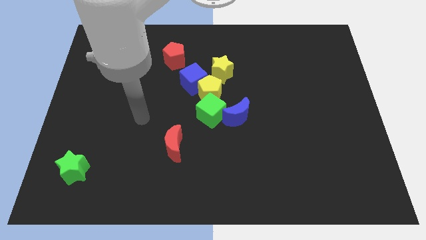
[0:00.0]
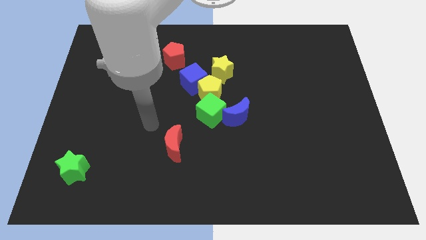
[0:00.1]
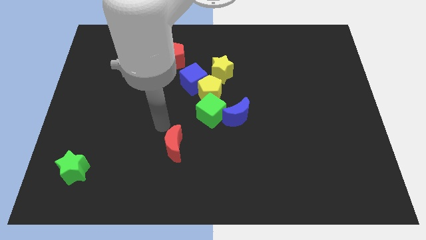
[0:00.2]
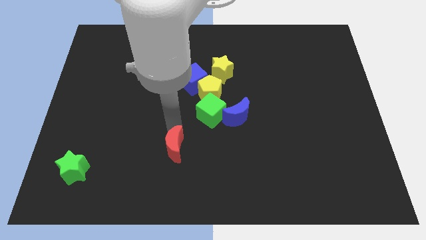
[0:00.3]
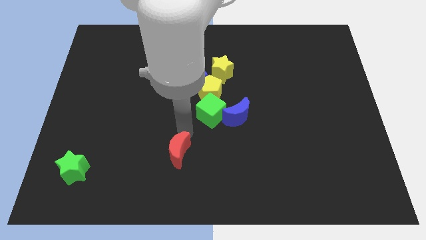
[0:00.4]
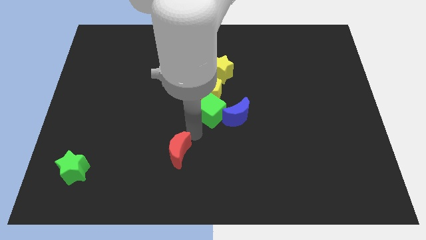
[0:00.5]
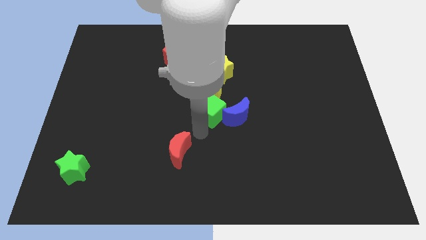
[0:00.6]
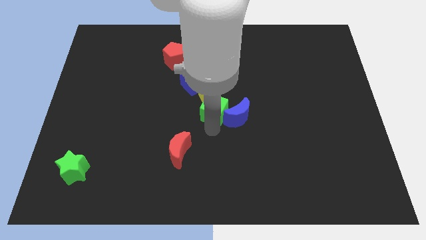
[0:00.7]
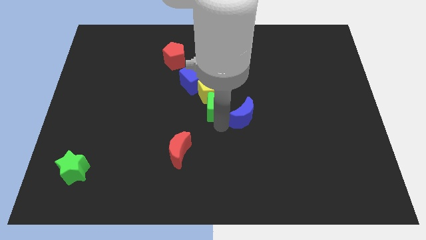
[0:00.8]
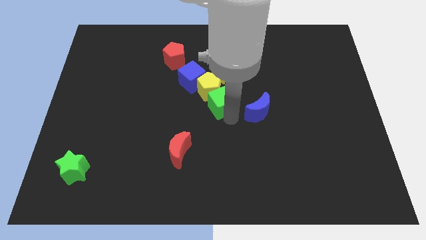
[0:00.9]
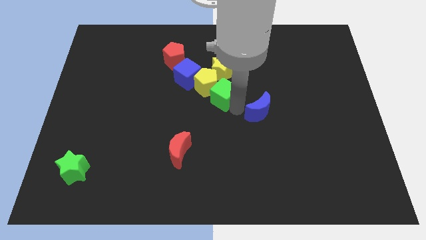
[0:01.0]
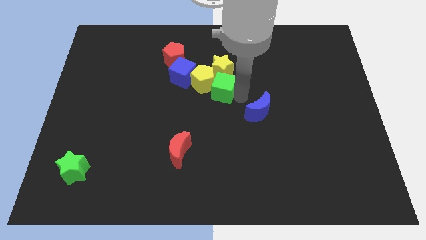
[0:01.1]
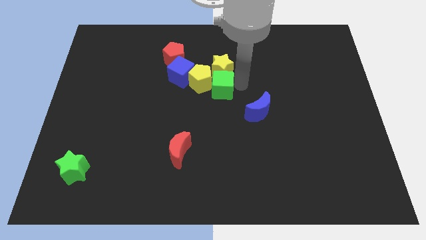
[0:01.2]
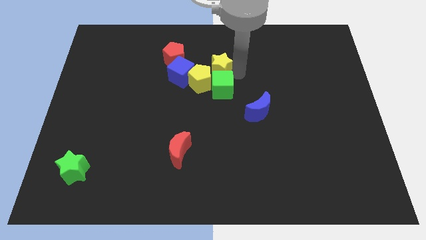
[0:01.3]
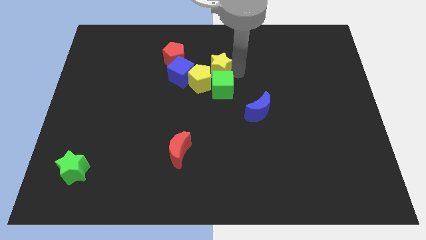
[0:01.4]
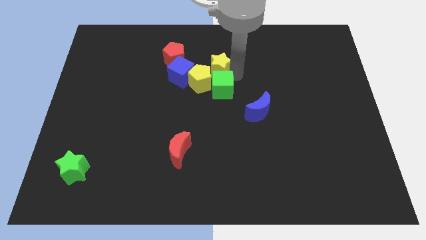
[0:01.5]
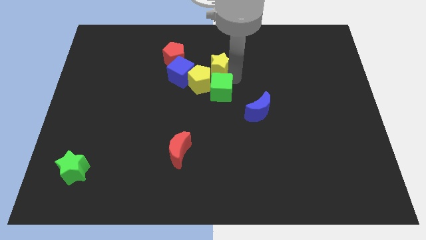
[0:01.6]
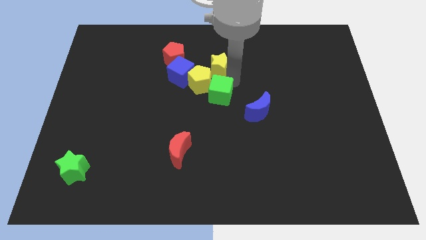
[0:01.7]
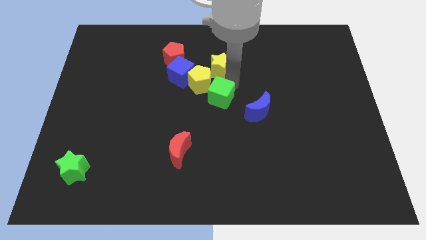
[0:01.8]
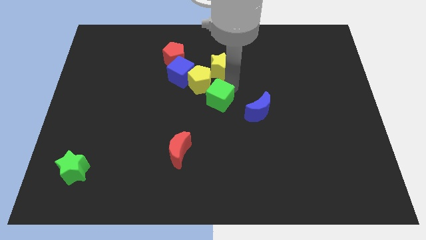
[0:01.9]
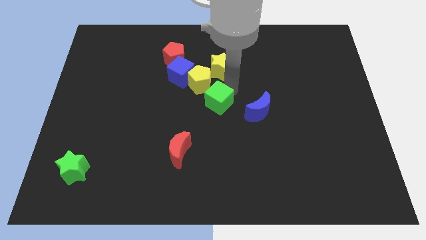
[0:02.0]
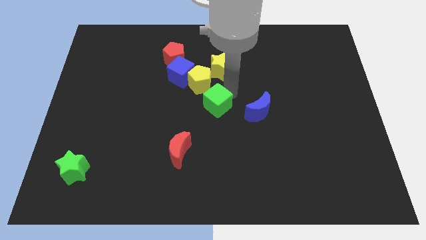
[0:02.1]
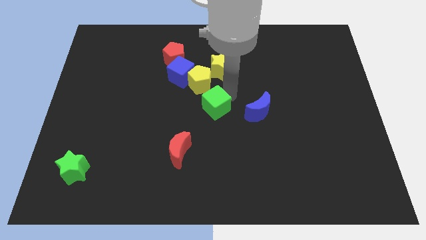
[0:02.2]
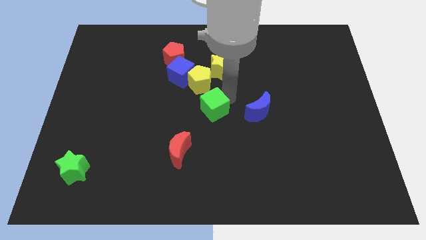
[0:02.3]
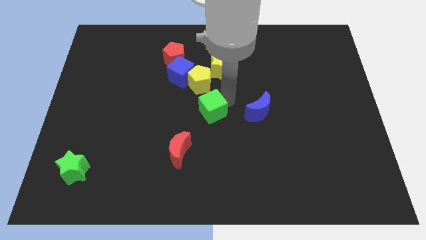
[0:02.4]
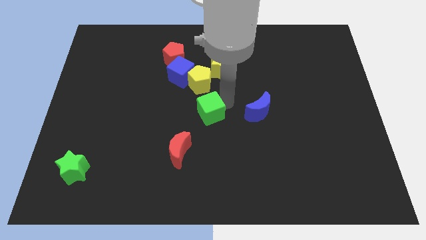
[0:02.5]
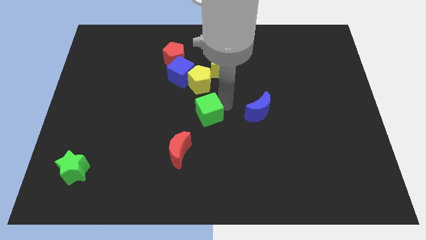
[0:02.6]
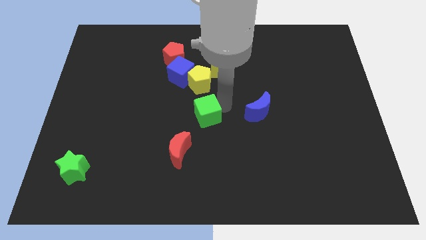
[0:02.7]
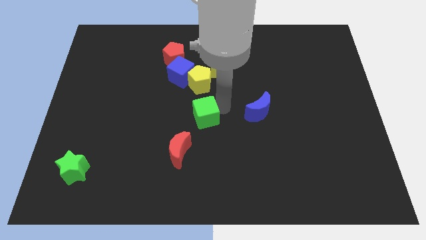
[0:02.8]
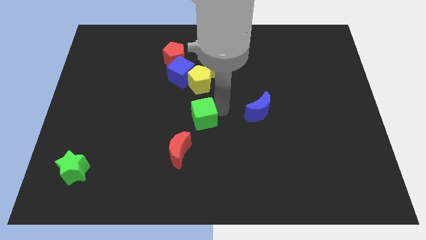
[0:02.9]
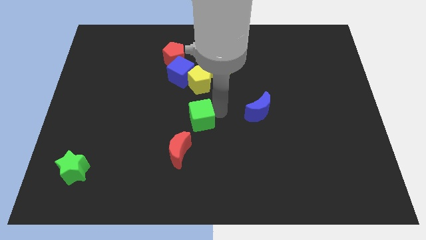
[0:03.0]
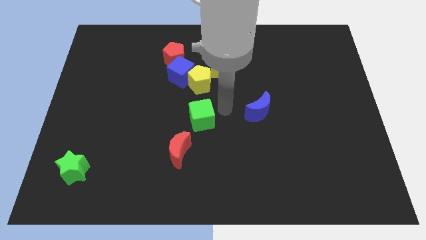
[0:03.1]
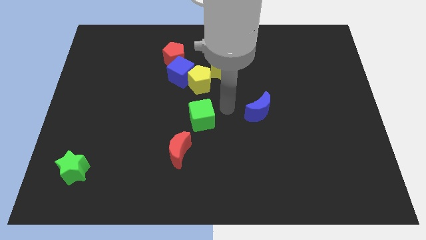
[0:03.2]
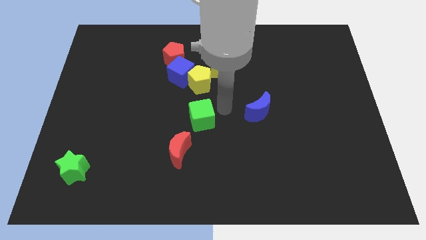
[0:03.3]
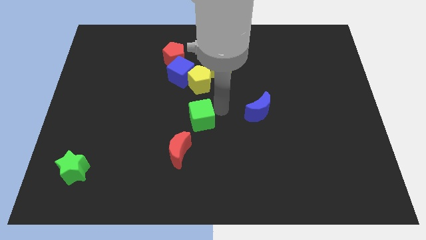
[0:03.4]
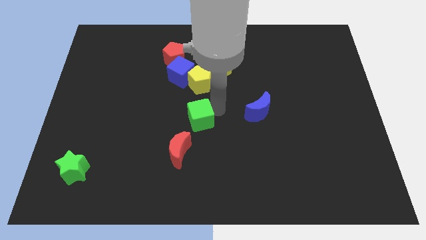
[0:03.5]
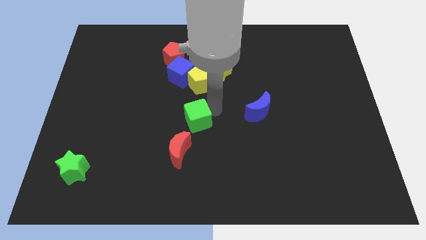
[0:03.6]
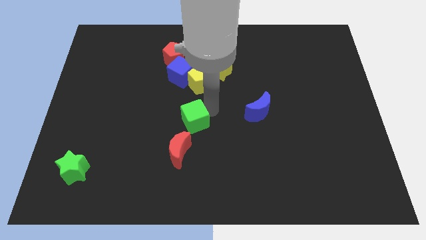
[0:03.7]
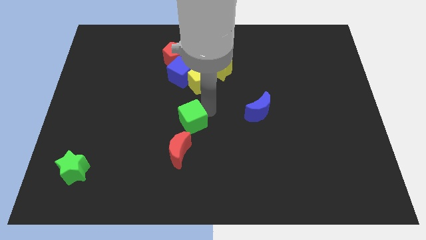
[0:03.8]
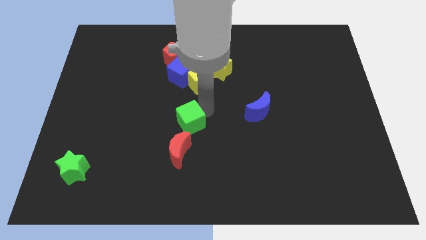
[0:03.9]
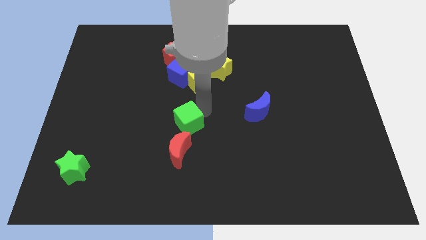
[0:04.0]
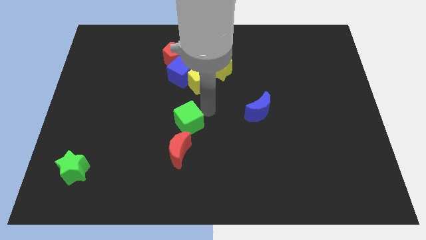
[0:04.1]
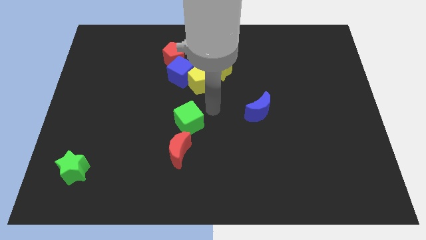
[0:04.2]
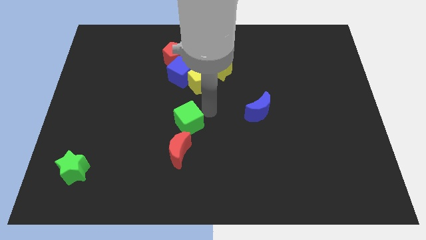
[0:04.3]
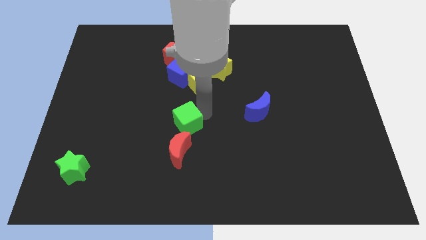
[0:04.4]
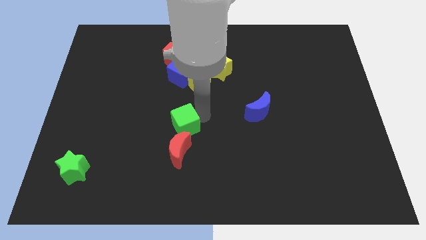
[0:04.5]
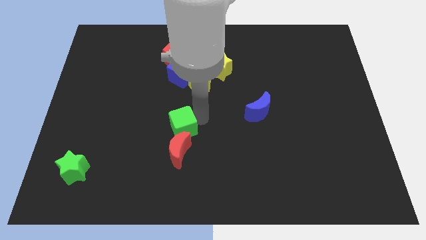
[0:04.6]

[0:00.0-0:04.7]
slide the green cube a little bit downwards and to the left diagonally

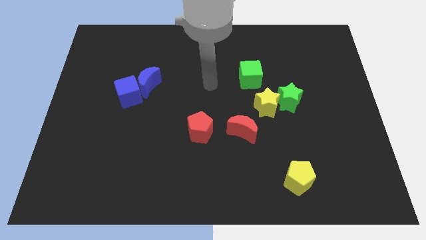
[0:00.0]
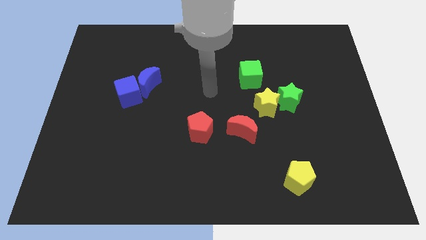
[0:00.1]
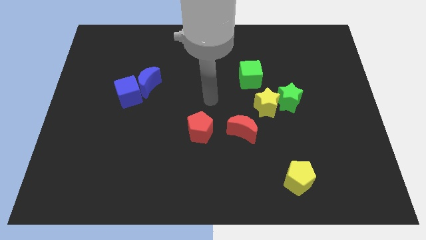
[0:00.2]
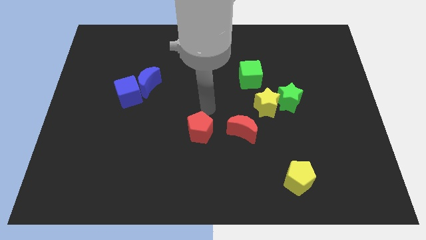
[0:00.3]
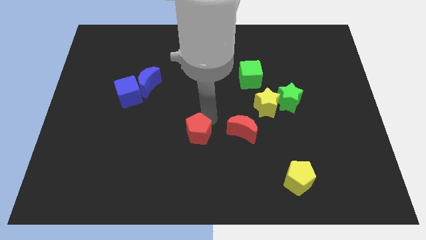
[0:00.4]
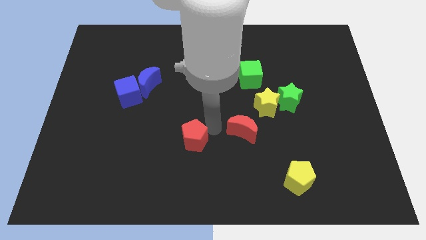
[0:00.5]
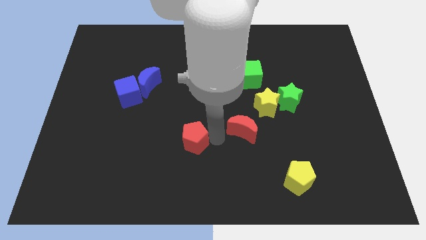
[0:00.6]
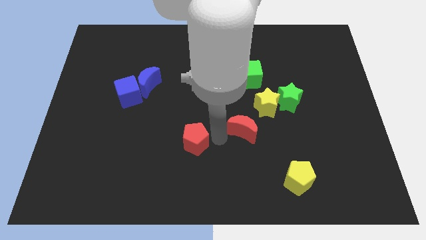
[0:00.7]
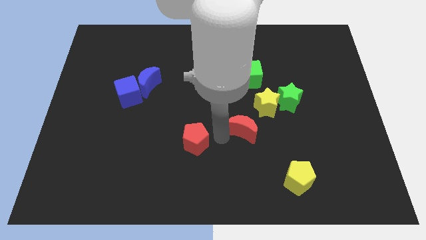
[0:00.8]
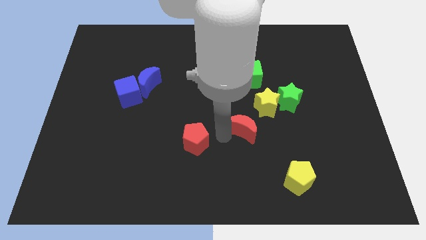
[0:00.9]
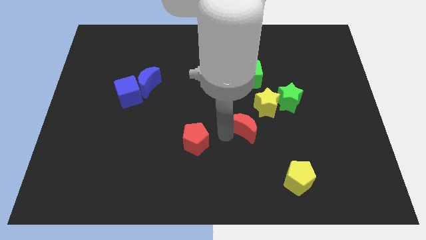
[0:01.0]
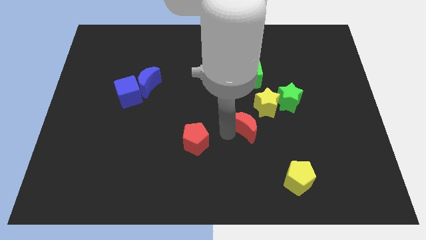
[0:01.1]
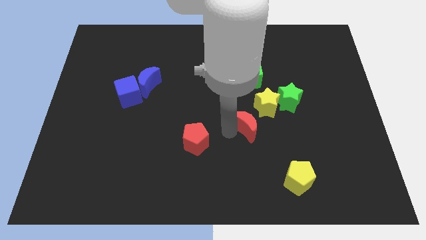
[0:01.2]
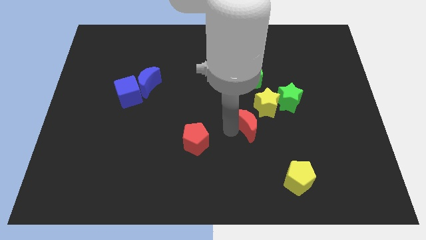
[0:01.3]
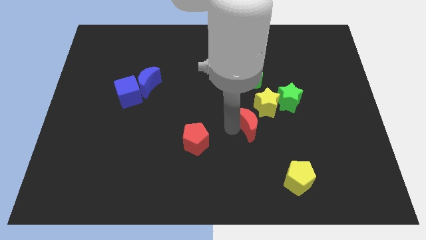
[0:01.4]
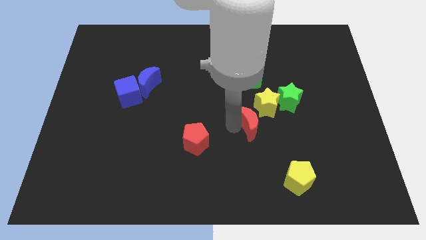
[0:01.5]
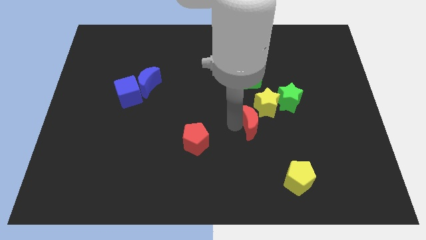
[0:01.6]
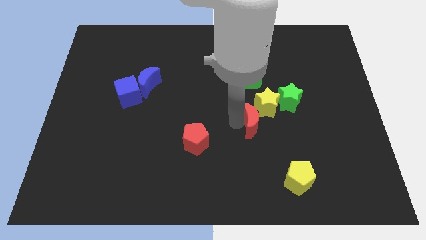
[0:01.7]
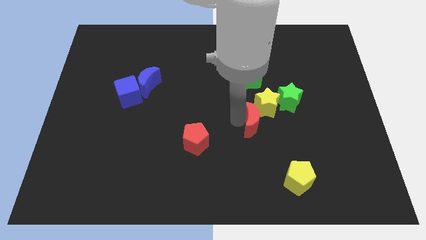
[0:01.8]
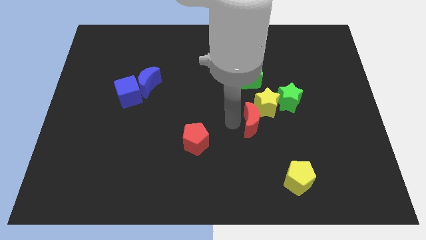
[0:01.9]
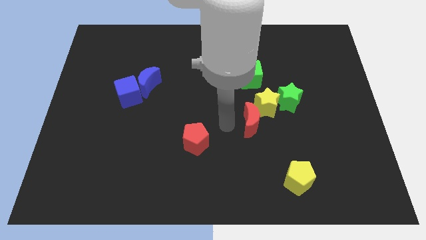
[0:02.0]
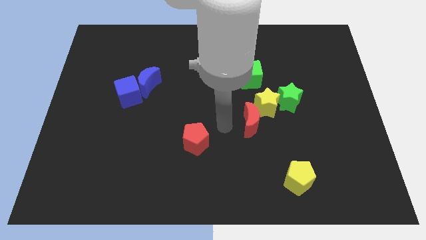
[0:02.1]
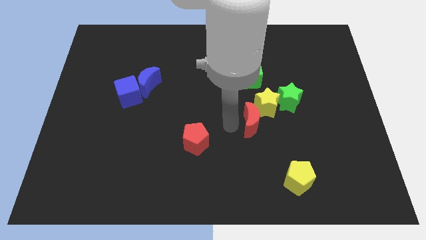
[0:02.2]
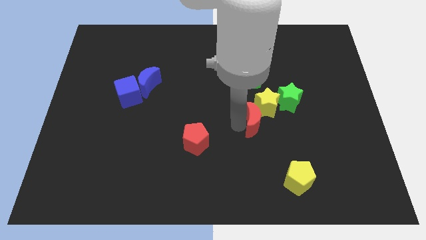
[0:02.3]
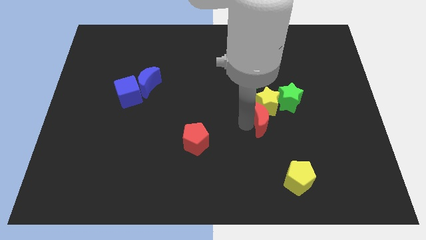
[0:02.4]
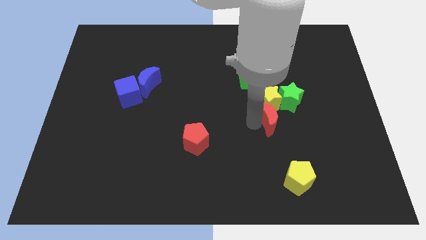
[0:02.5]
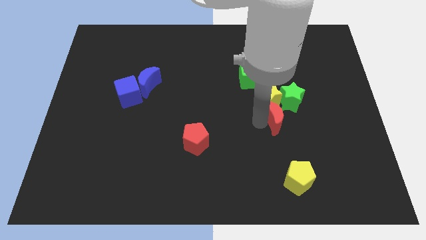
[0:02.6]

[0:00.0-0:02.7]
slightly slide the red moon diagonally up and to the right

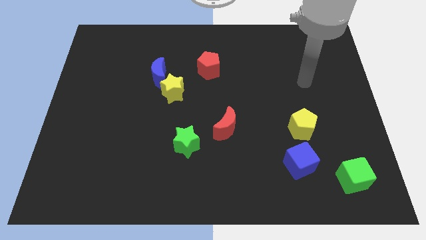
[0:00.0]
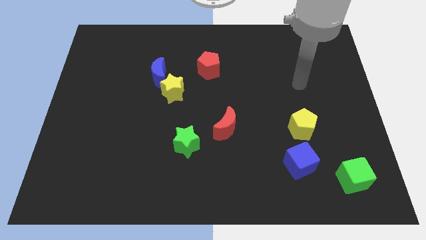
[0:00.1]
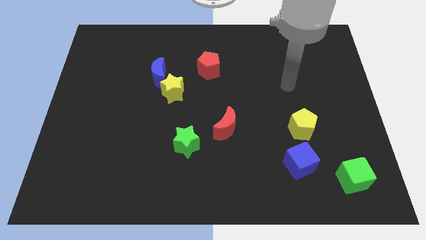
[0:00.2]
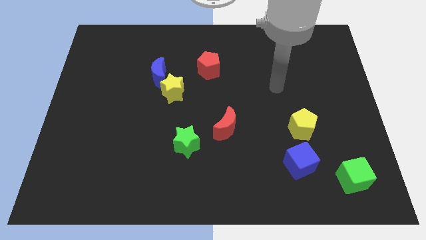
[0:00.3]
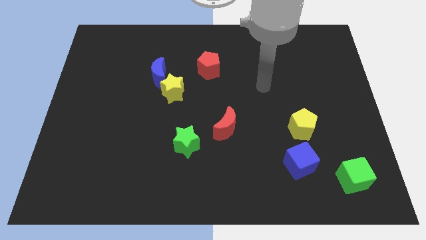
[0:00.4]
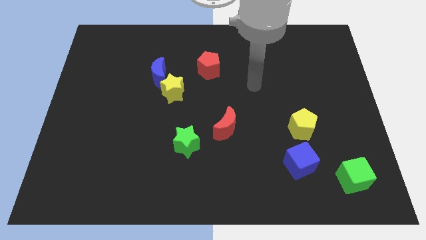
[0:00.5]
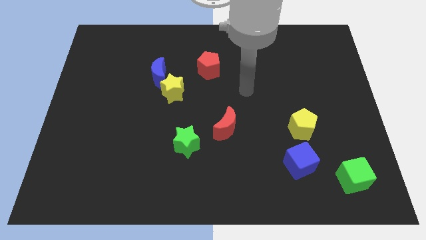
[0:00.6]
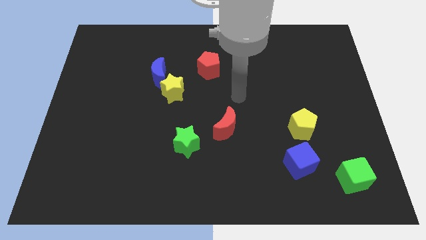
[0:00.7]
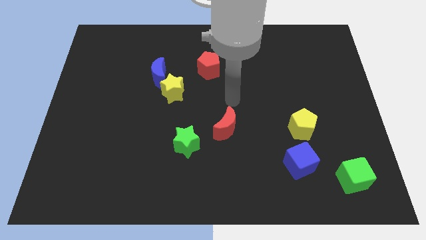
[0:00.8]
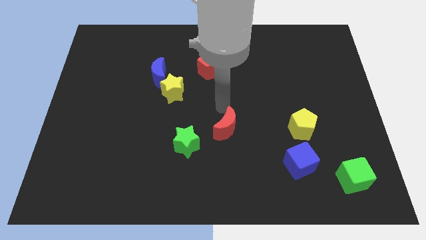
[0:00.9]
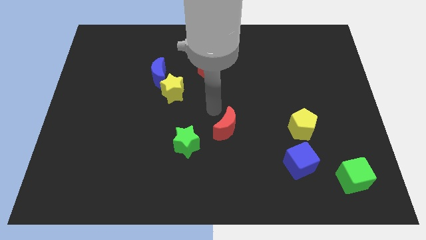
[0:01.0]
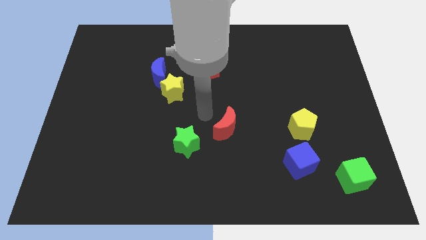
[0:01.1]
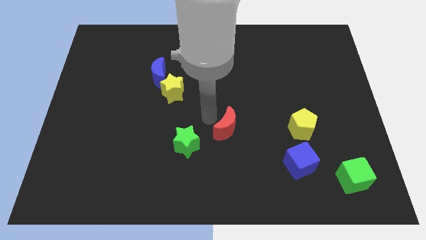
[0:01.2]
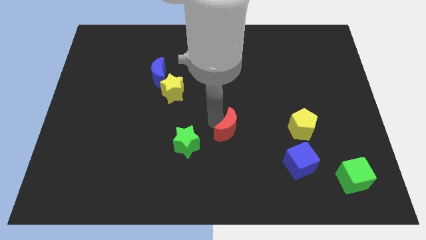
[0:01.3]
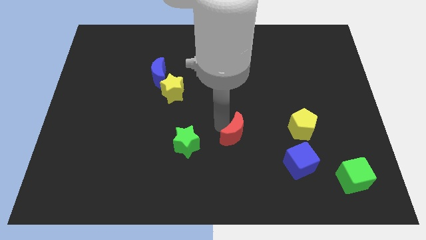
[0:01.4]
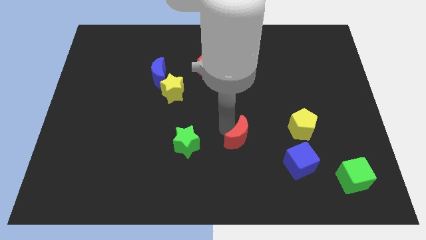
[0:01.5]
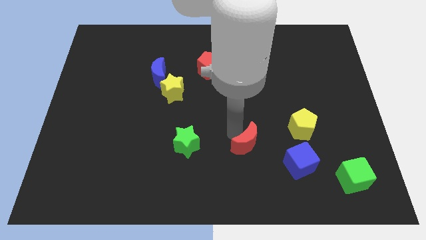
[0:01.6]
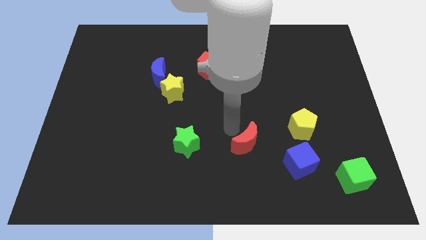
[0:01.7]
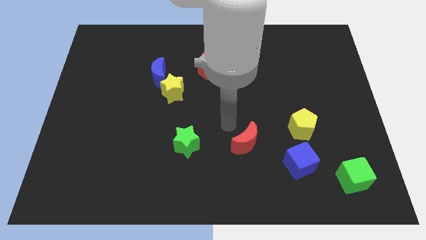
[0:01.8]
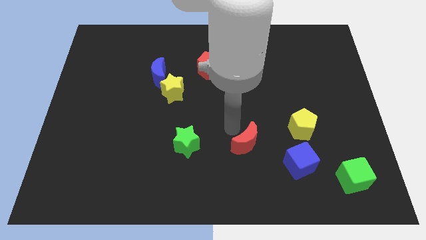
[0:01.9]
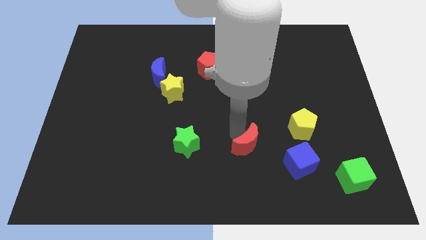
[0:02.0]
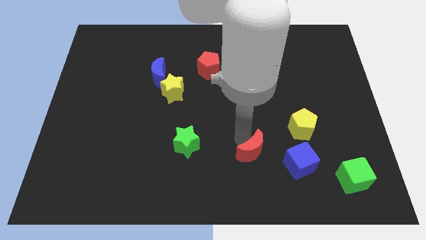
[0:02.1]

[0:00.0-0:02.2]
move the red moon downwards and right diagonally a little bit
